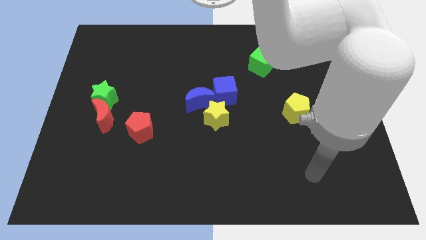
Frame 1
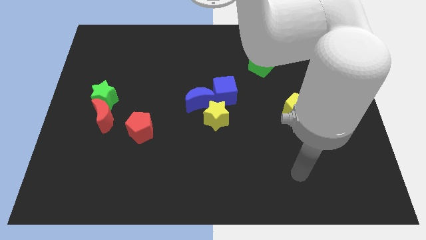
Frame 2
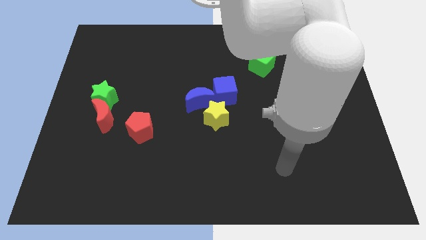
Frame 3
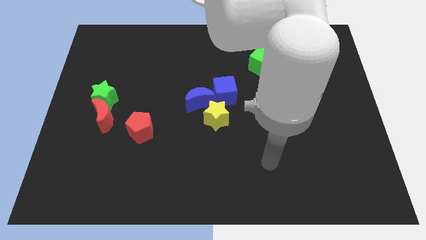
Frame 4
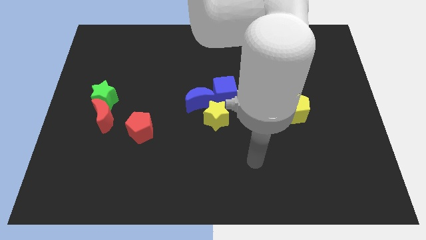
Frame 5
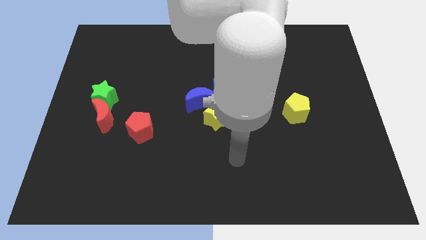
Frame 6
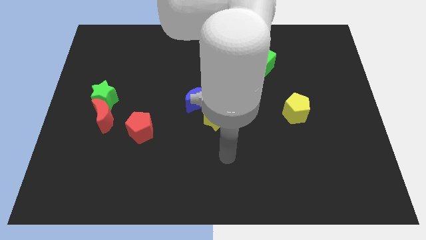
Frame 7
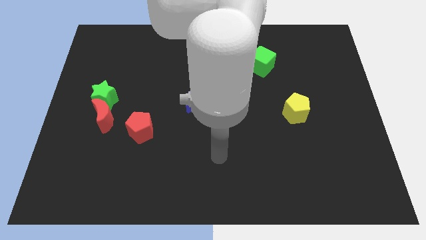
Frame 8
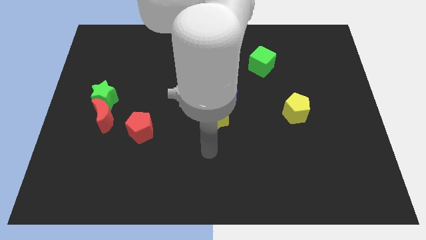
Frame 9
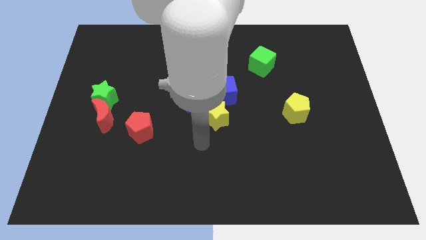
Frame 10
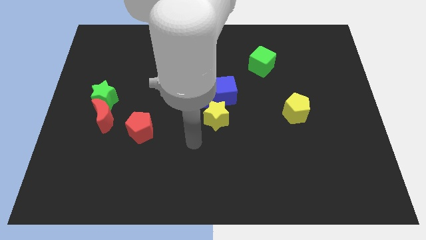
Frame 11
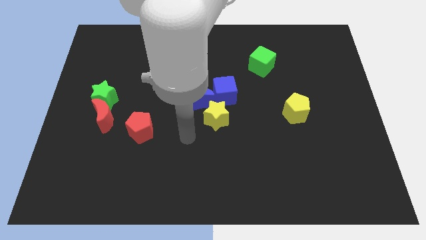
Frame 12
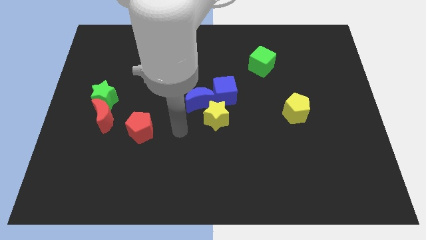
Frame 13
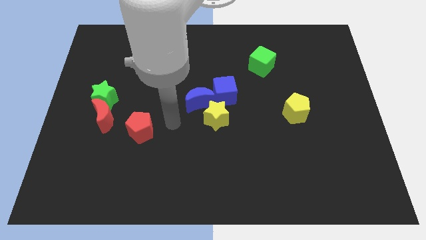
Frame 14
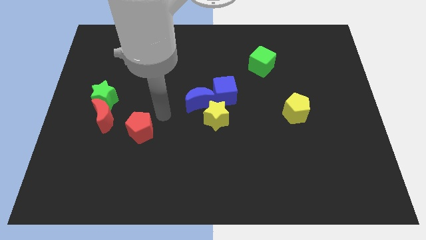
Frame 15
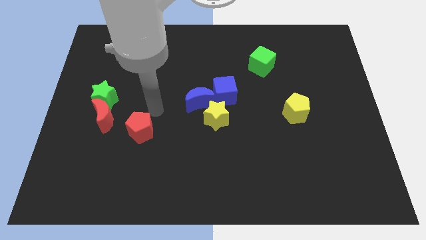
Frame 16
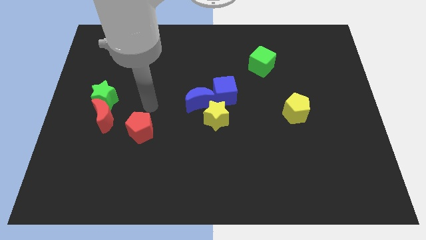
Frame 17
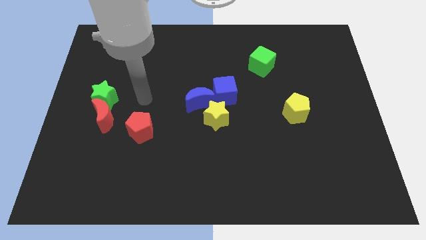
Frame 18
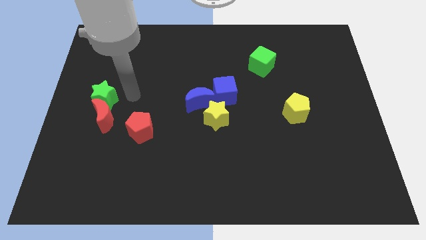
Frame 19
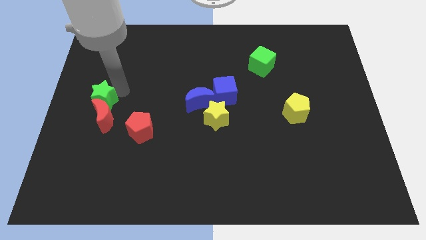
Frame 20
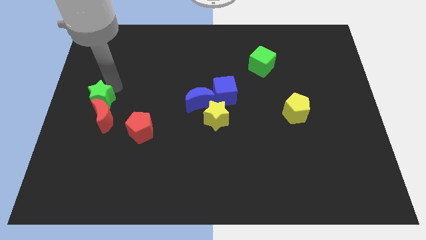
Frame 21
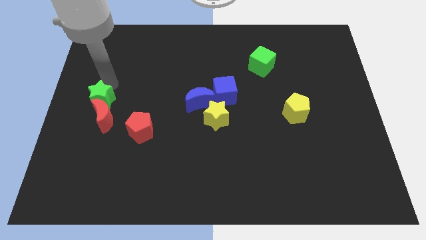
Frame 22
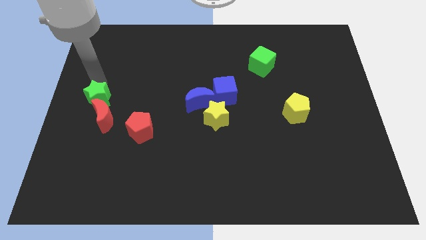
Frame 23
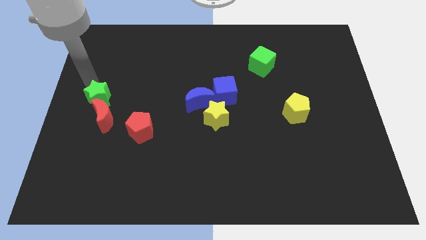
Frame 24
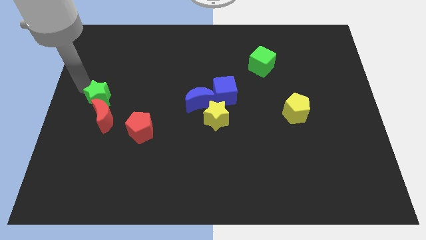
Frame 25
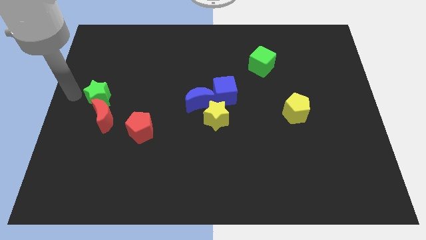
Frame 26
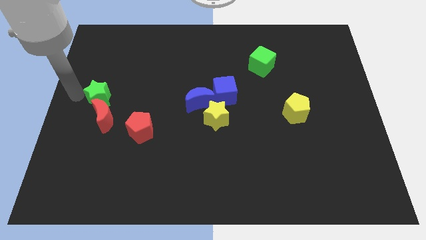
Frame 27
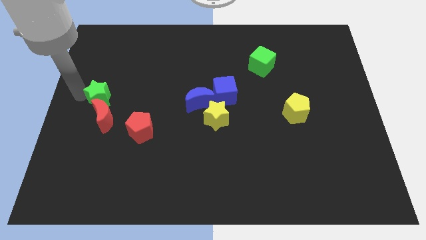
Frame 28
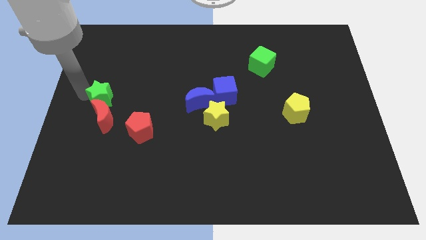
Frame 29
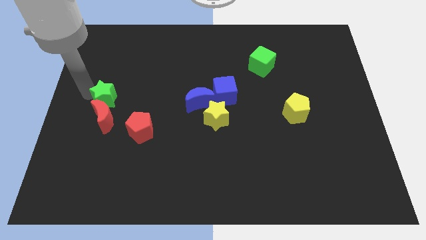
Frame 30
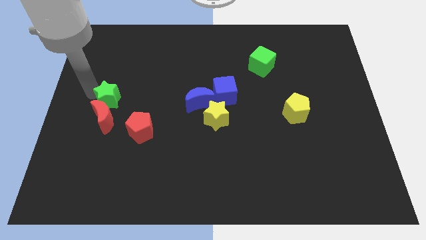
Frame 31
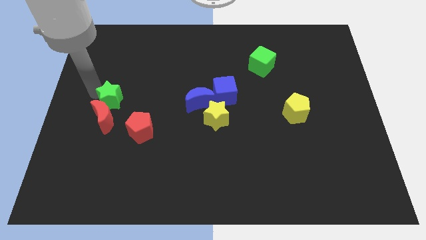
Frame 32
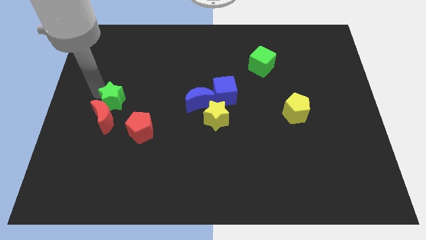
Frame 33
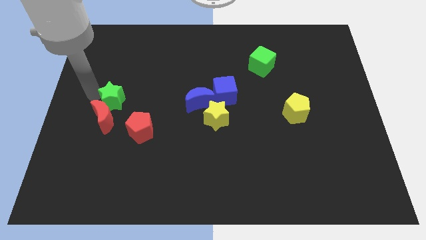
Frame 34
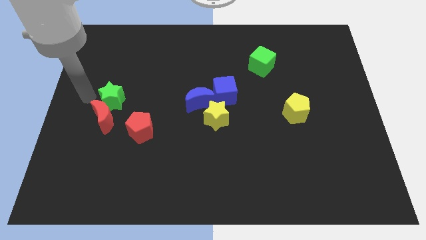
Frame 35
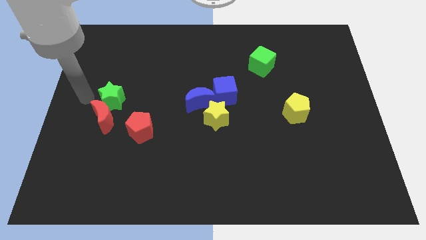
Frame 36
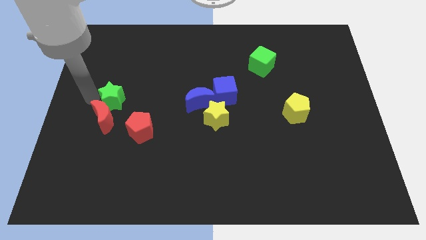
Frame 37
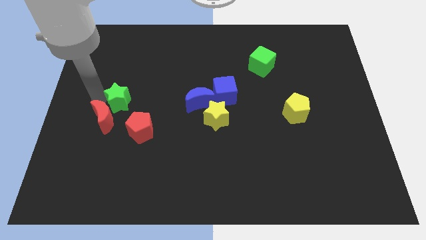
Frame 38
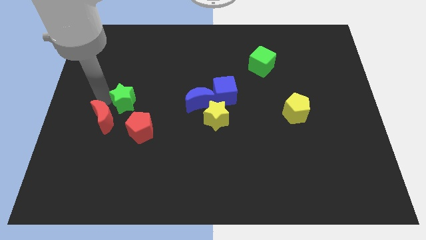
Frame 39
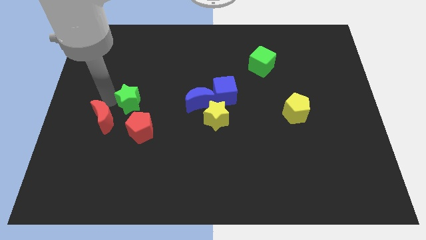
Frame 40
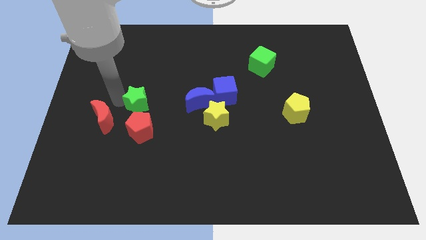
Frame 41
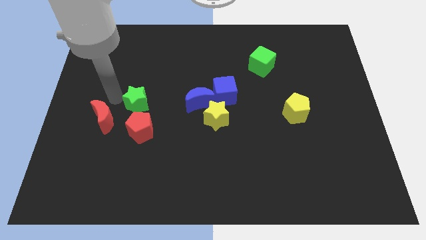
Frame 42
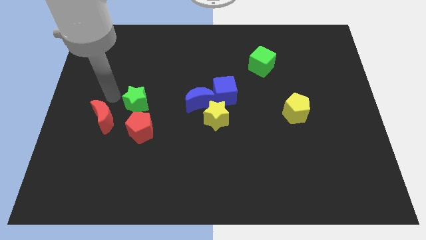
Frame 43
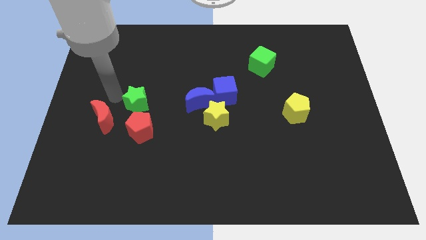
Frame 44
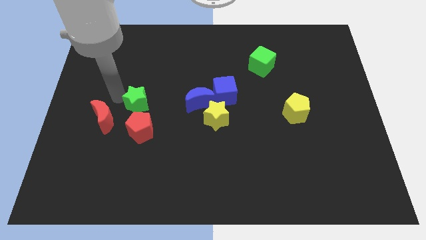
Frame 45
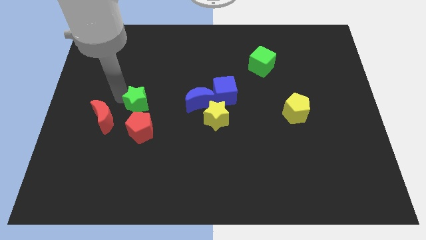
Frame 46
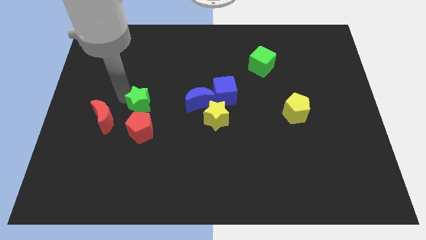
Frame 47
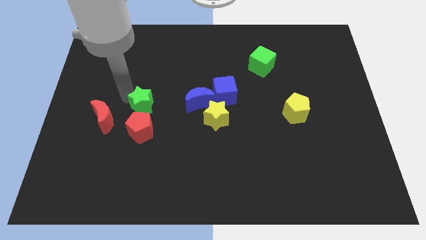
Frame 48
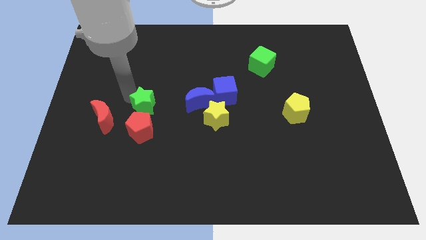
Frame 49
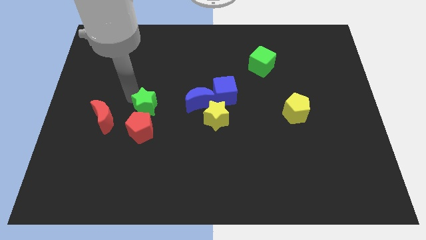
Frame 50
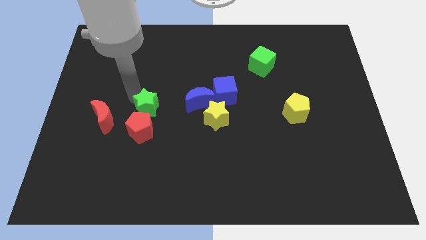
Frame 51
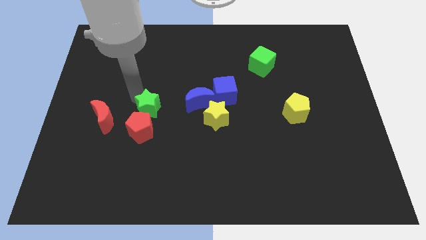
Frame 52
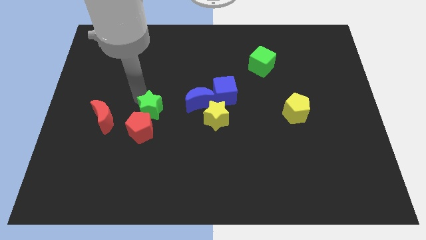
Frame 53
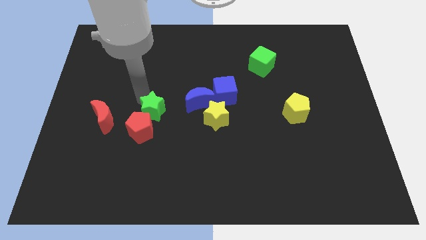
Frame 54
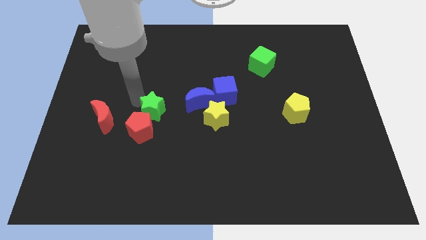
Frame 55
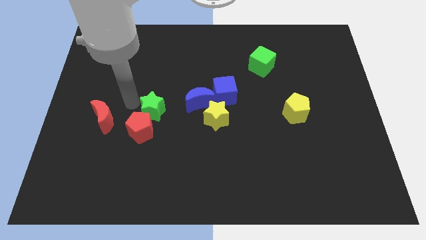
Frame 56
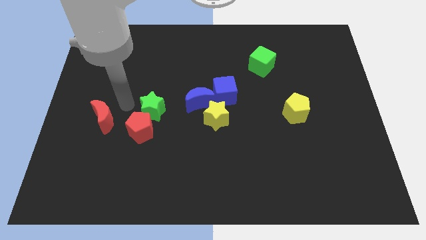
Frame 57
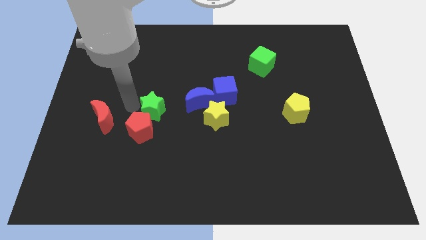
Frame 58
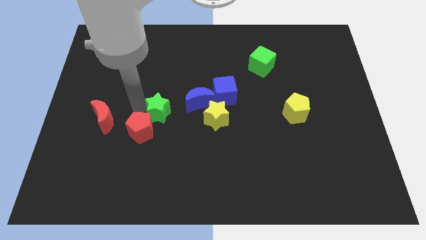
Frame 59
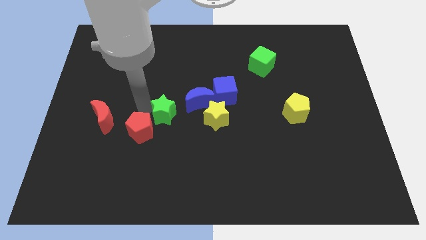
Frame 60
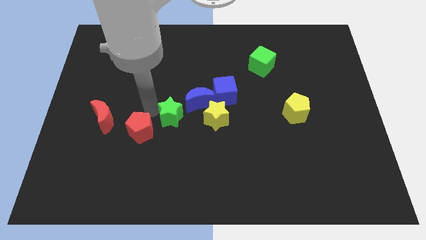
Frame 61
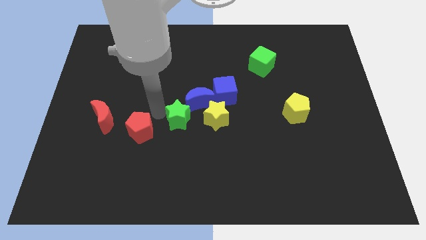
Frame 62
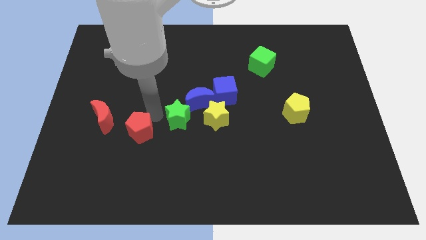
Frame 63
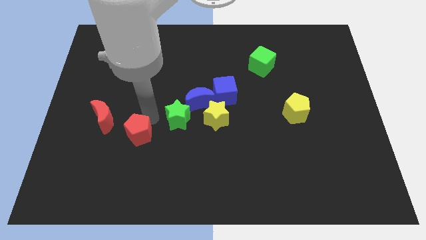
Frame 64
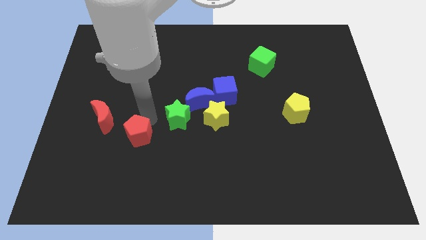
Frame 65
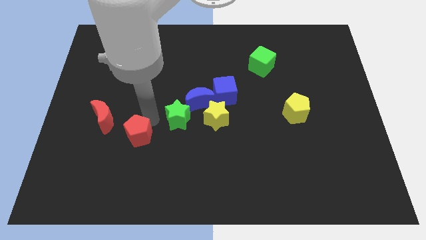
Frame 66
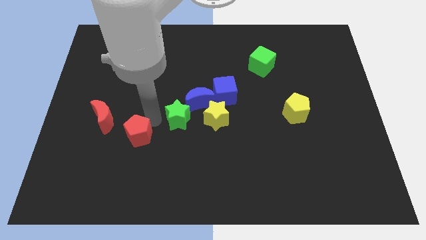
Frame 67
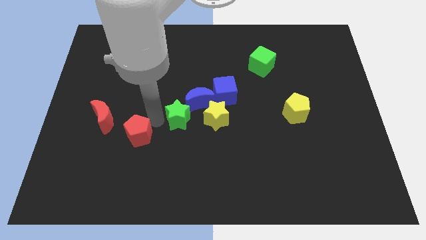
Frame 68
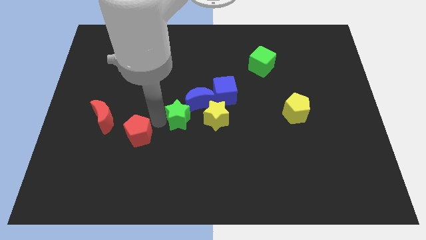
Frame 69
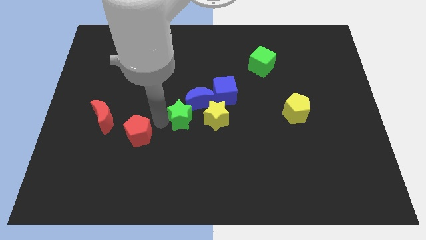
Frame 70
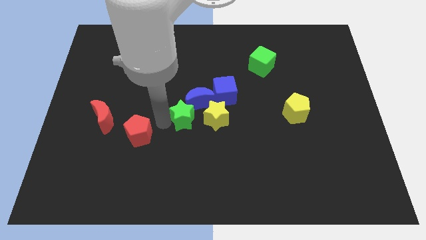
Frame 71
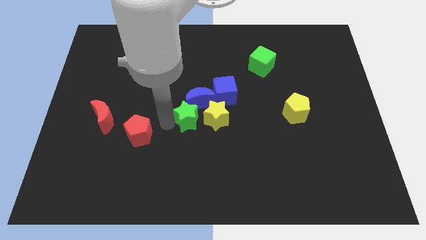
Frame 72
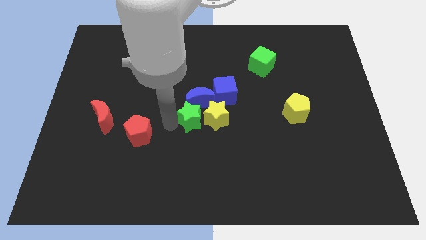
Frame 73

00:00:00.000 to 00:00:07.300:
move the green star towards the yellow star
